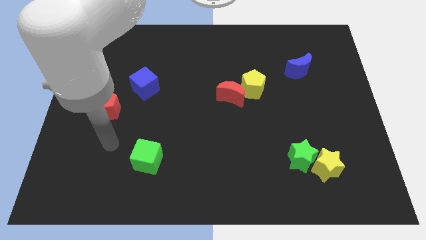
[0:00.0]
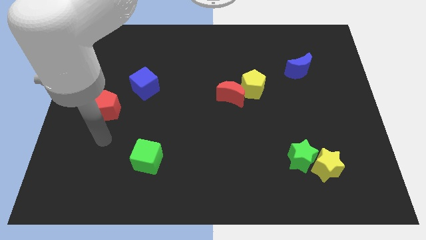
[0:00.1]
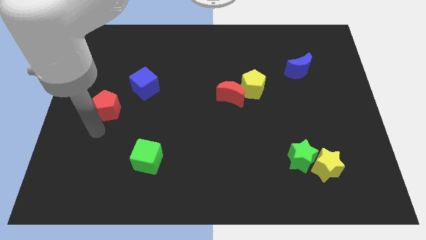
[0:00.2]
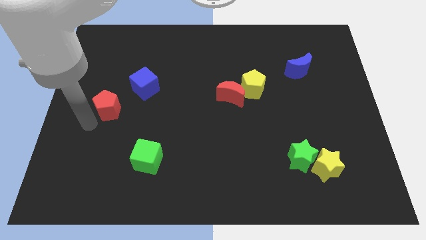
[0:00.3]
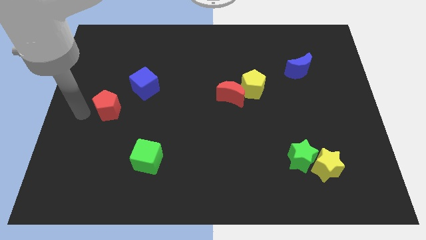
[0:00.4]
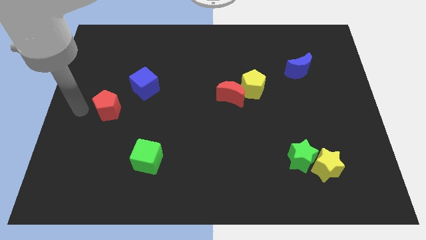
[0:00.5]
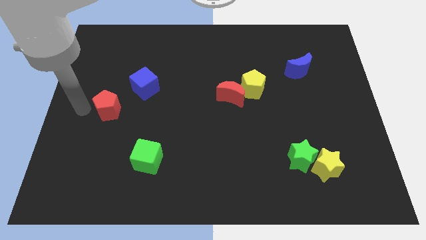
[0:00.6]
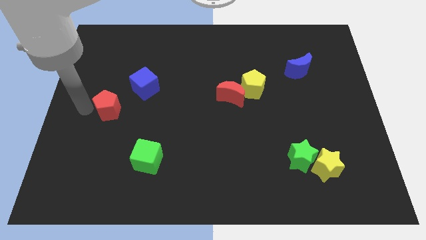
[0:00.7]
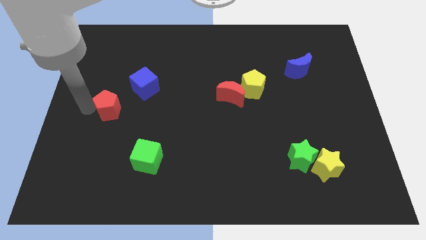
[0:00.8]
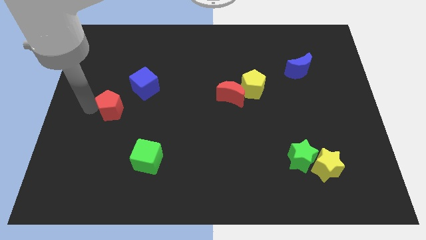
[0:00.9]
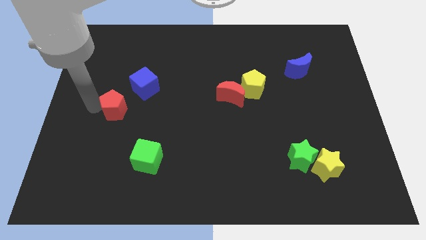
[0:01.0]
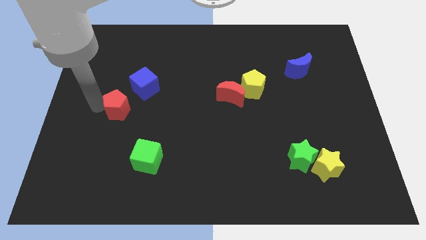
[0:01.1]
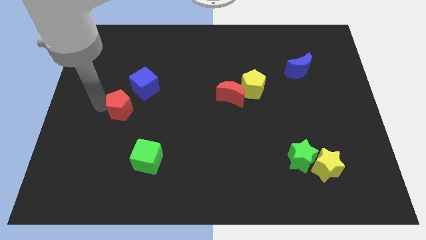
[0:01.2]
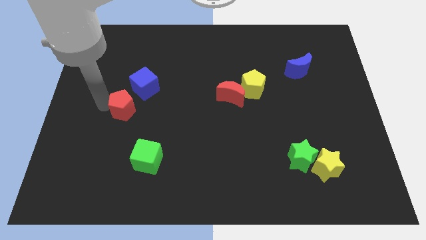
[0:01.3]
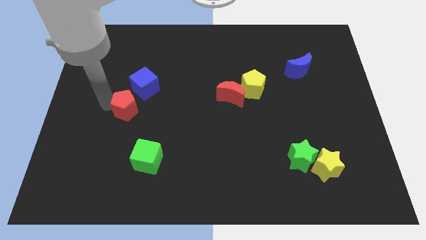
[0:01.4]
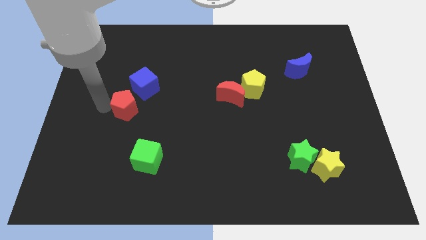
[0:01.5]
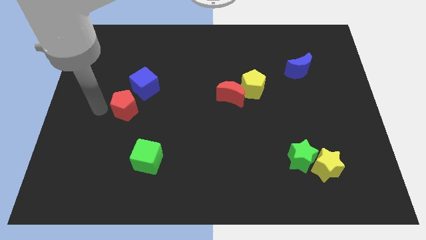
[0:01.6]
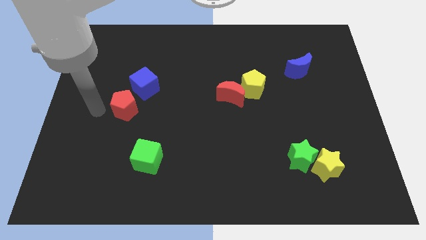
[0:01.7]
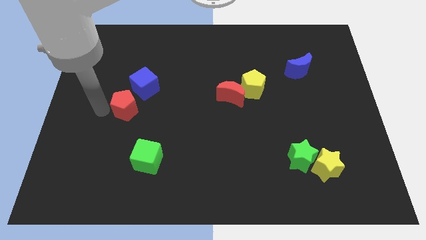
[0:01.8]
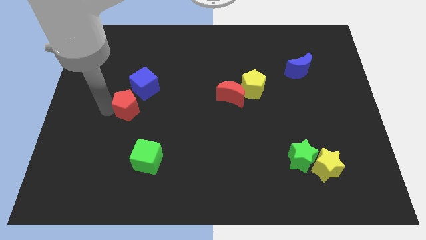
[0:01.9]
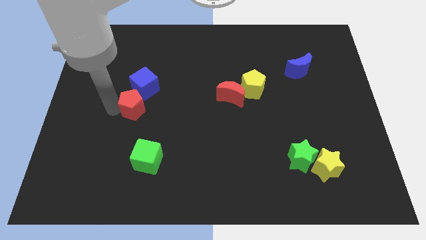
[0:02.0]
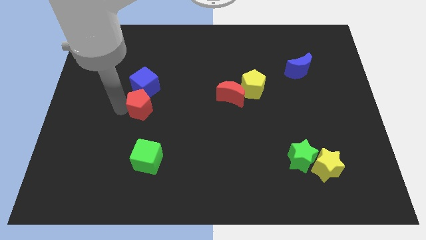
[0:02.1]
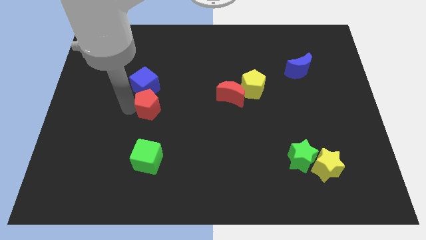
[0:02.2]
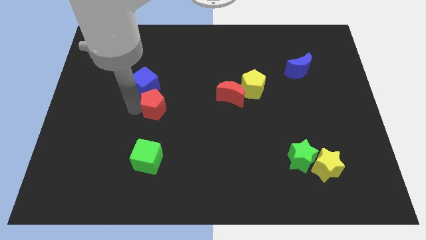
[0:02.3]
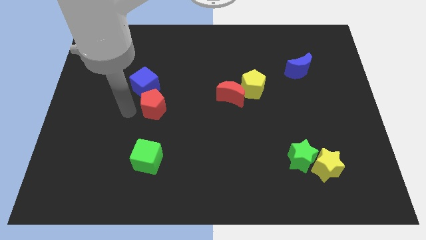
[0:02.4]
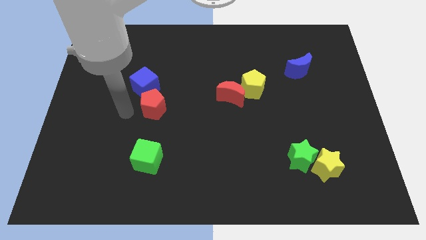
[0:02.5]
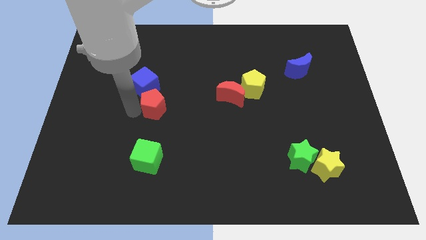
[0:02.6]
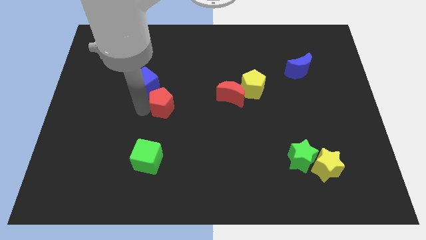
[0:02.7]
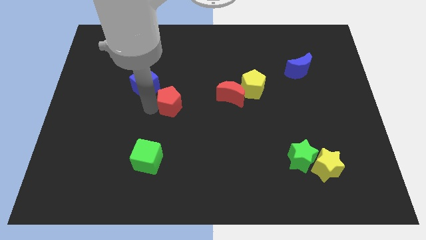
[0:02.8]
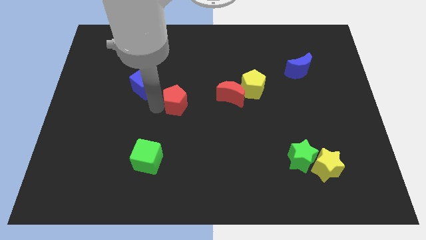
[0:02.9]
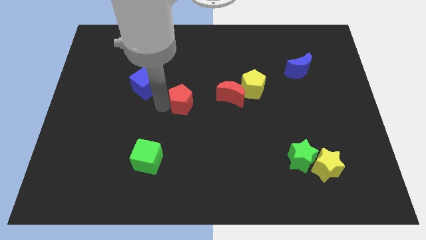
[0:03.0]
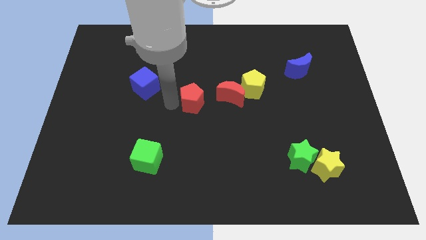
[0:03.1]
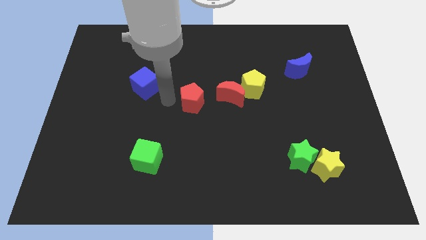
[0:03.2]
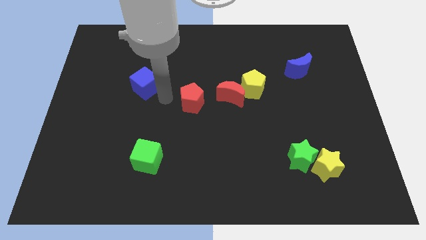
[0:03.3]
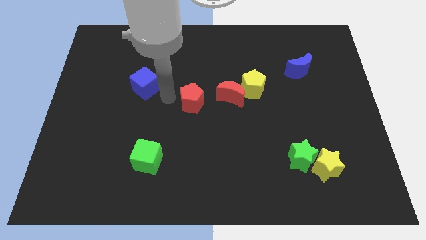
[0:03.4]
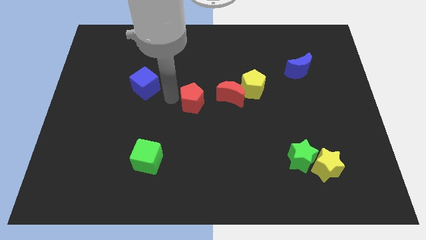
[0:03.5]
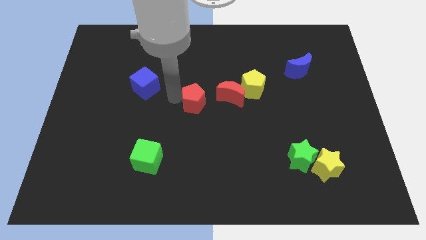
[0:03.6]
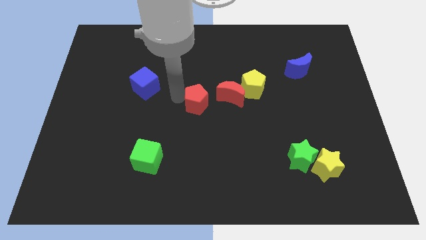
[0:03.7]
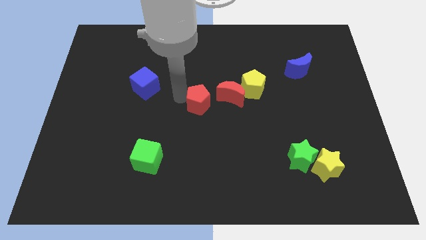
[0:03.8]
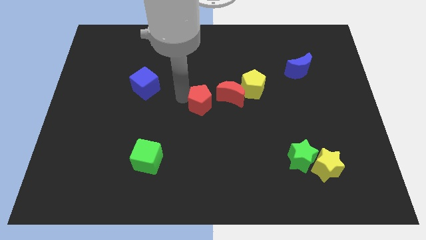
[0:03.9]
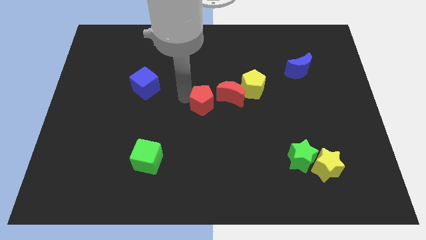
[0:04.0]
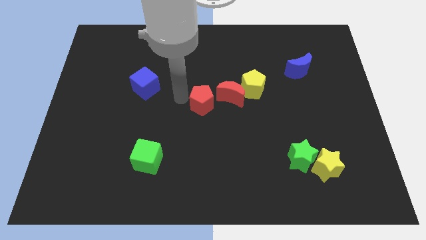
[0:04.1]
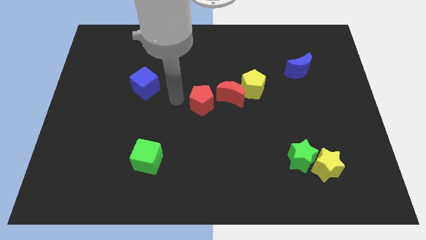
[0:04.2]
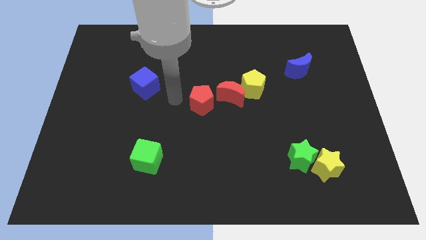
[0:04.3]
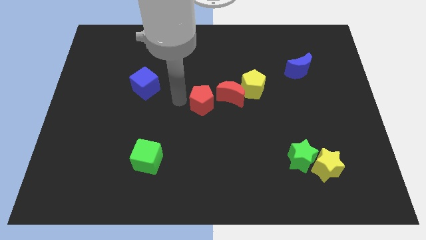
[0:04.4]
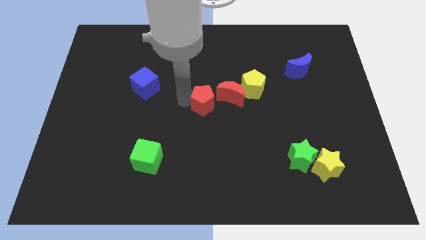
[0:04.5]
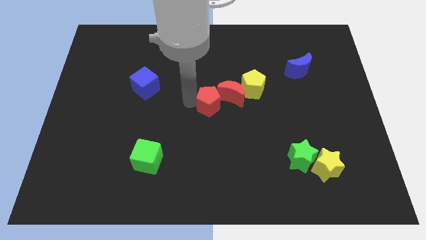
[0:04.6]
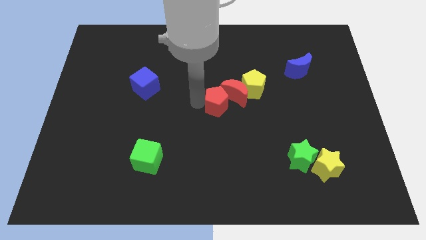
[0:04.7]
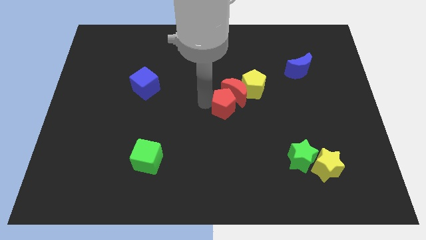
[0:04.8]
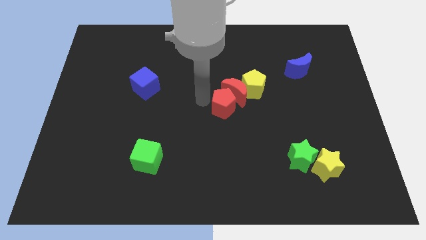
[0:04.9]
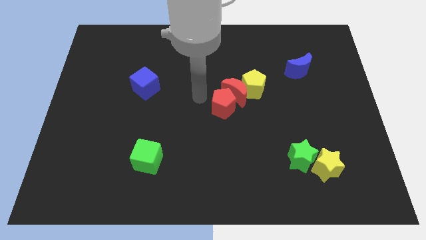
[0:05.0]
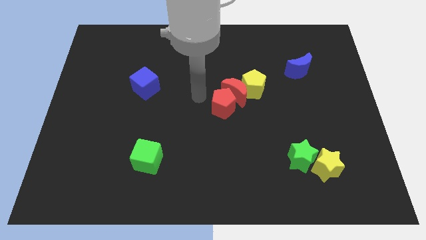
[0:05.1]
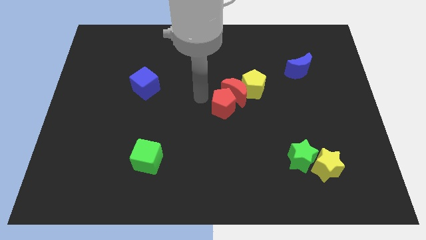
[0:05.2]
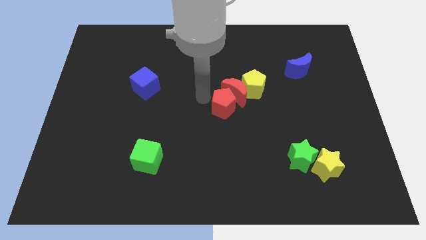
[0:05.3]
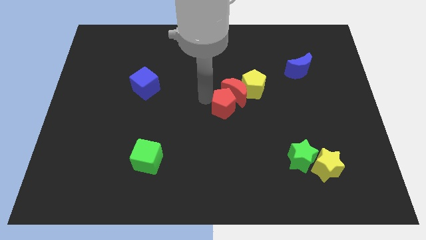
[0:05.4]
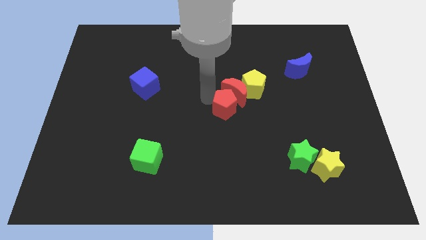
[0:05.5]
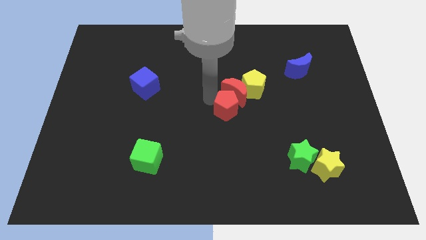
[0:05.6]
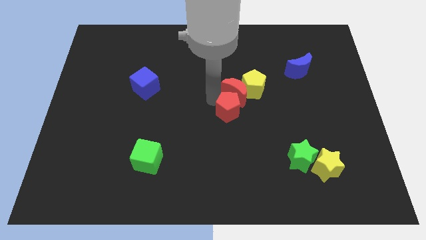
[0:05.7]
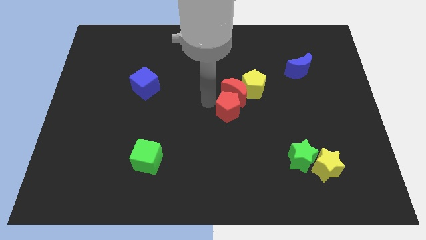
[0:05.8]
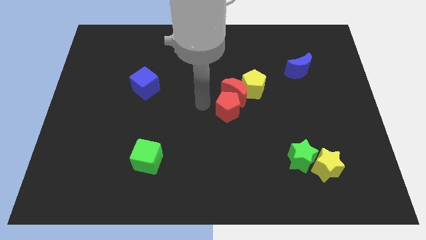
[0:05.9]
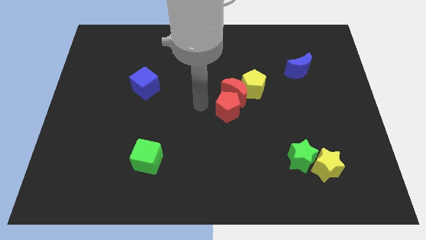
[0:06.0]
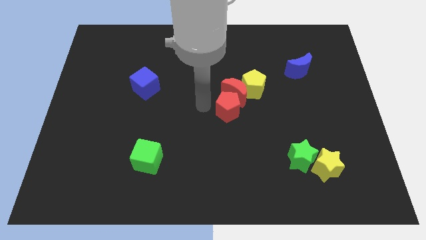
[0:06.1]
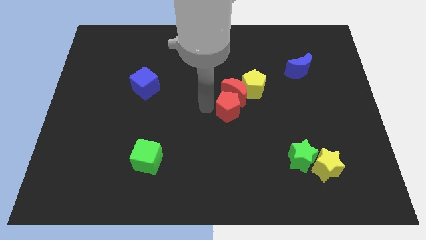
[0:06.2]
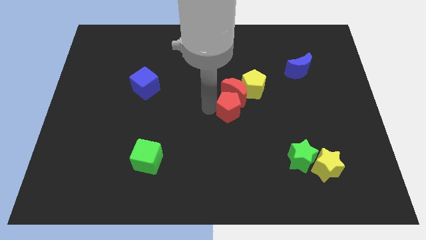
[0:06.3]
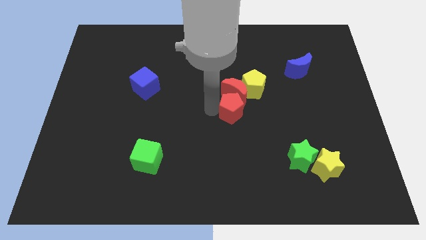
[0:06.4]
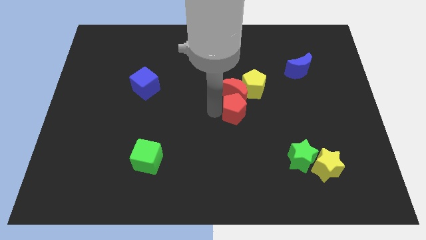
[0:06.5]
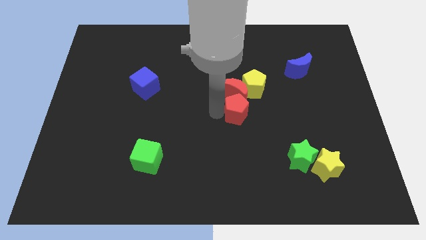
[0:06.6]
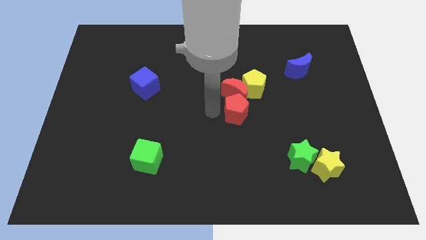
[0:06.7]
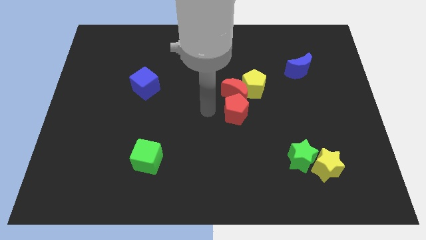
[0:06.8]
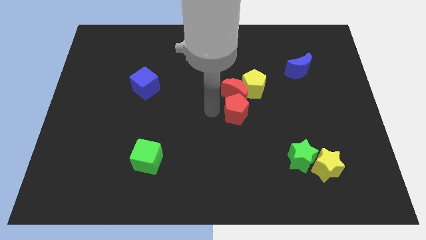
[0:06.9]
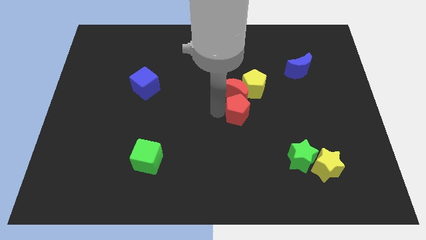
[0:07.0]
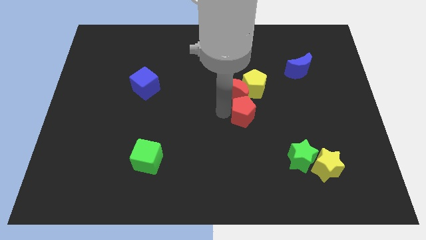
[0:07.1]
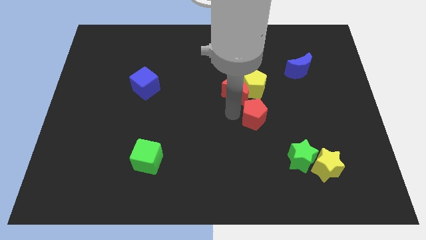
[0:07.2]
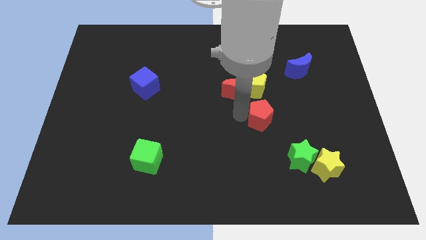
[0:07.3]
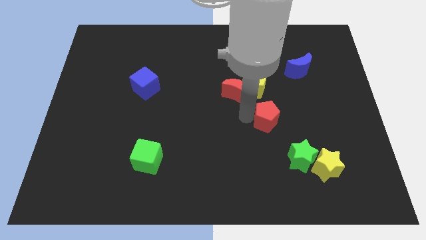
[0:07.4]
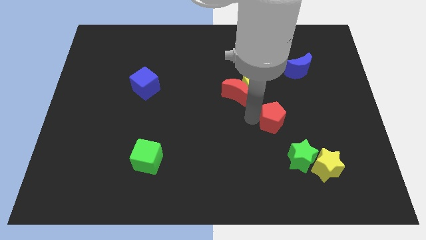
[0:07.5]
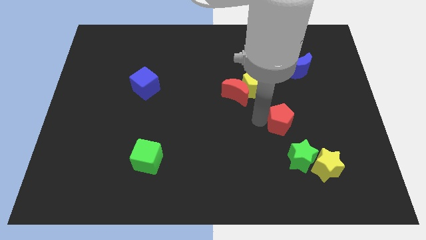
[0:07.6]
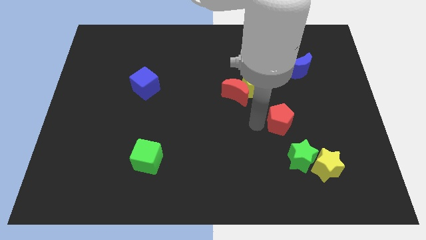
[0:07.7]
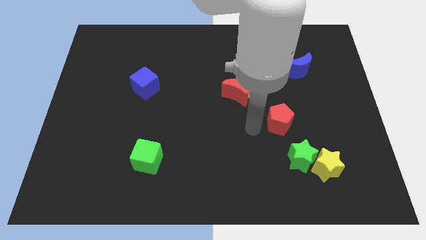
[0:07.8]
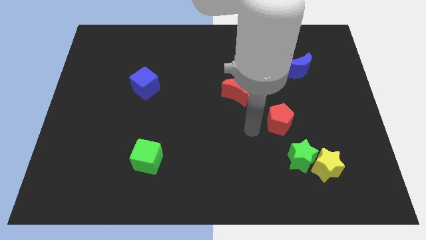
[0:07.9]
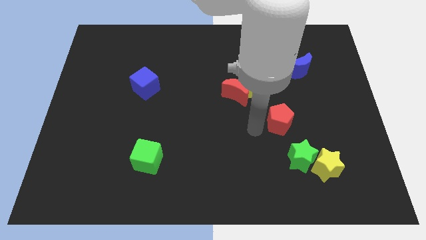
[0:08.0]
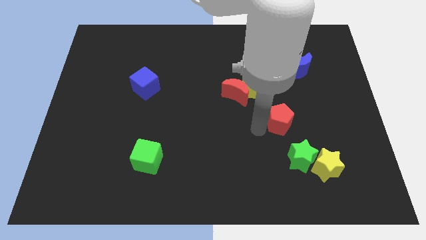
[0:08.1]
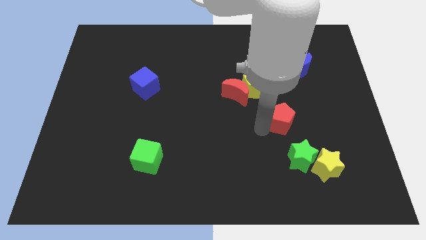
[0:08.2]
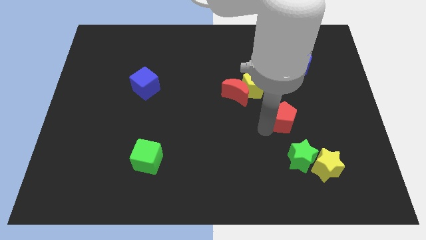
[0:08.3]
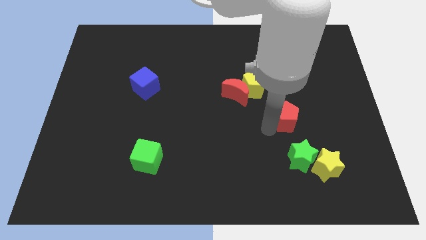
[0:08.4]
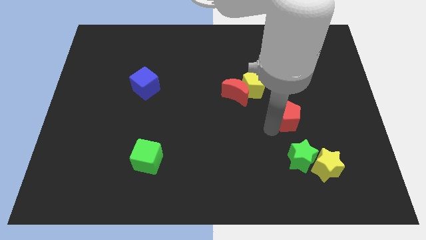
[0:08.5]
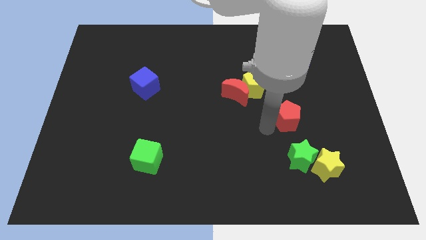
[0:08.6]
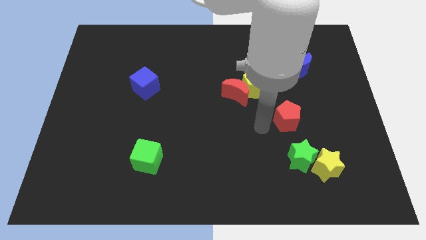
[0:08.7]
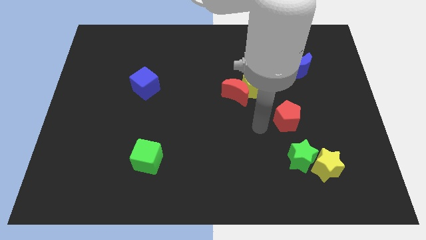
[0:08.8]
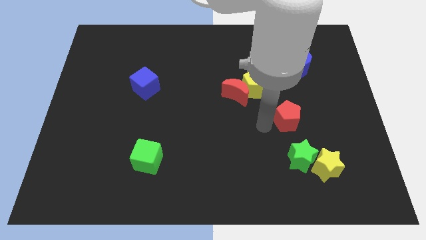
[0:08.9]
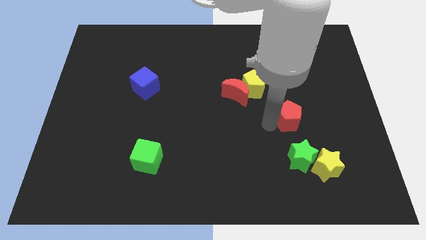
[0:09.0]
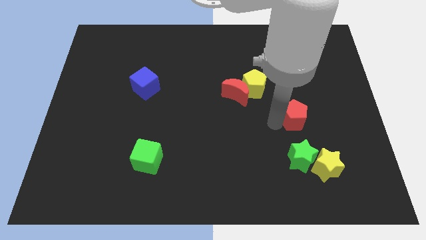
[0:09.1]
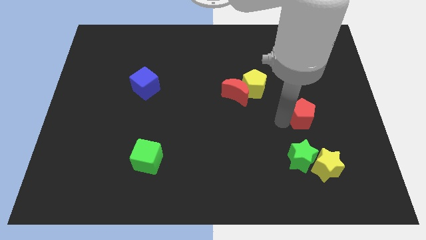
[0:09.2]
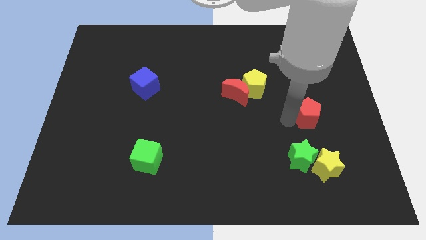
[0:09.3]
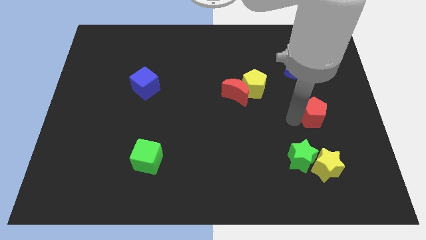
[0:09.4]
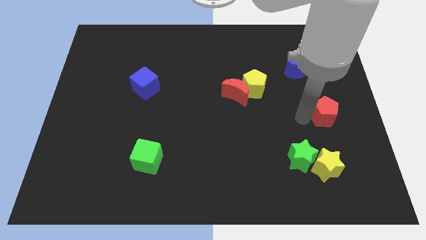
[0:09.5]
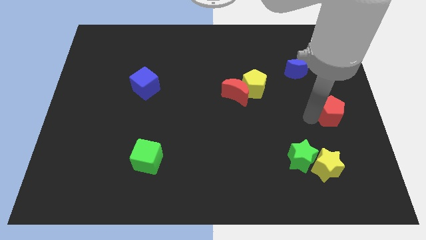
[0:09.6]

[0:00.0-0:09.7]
push the red pentagon to the right side
